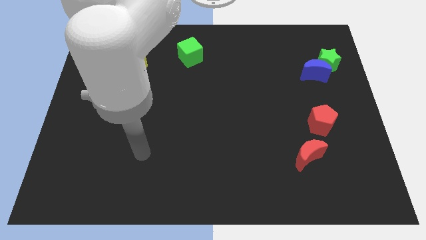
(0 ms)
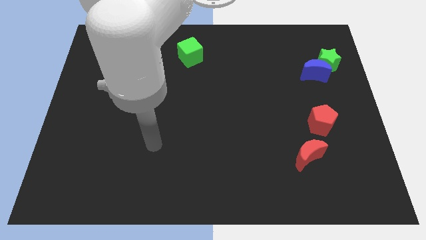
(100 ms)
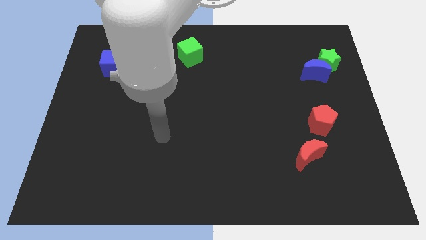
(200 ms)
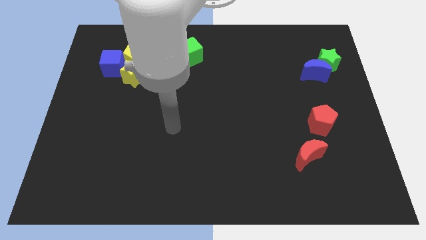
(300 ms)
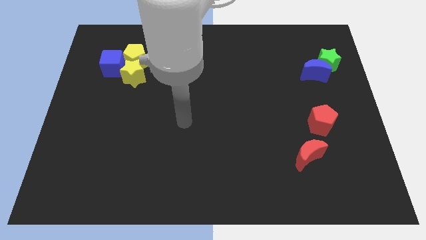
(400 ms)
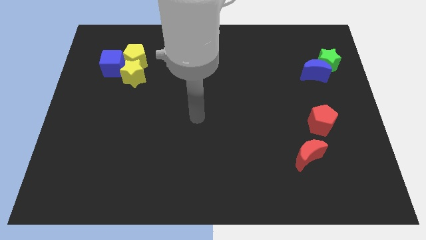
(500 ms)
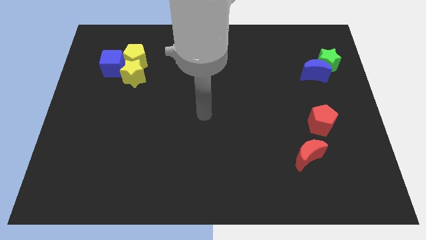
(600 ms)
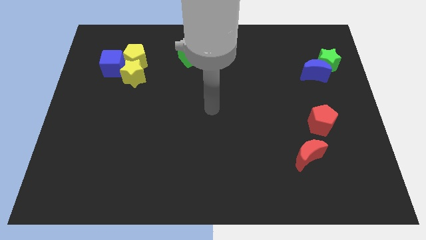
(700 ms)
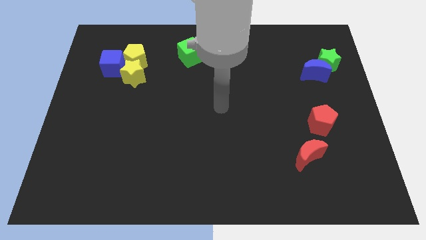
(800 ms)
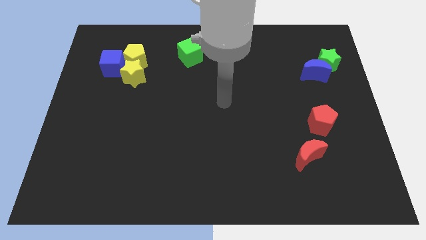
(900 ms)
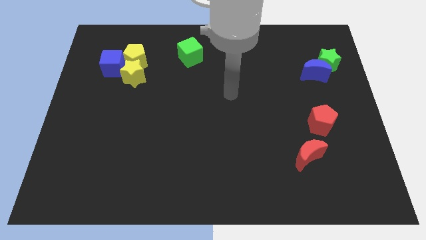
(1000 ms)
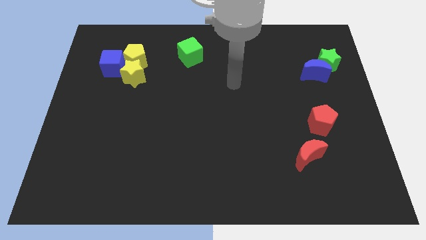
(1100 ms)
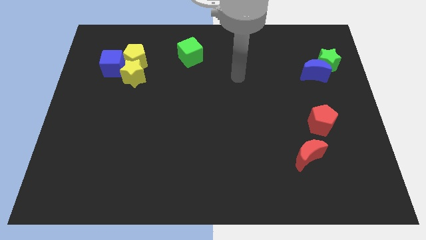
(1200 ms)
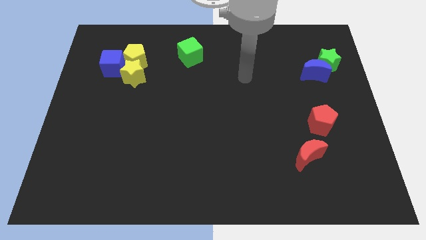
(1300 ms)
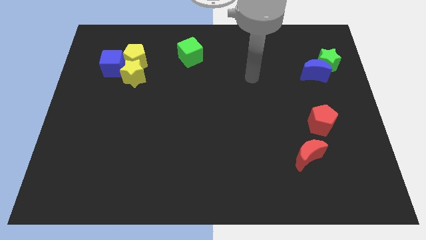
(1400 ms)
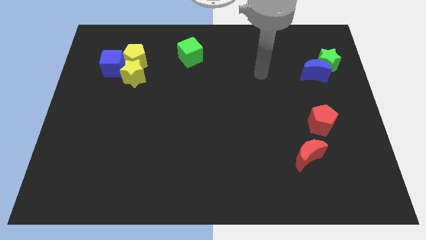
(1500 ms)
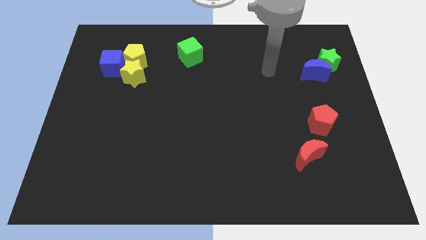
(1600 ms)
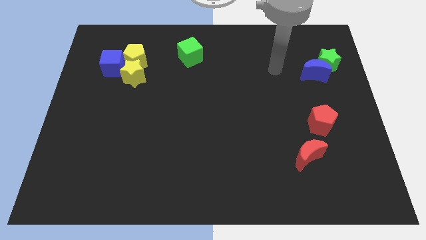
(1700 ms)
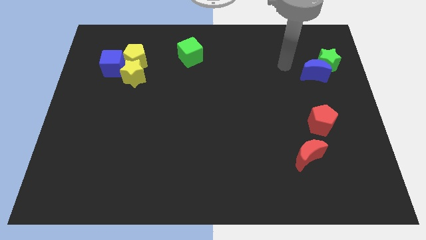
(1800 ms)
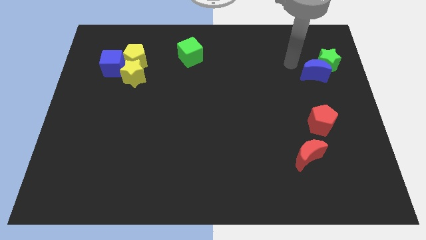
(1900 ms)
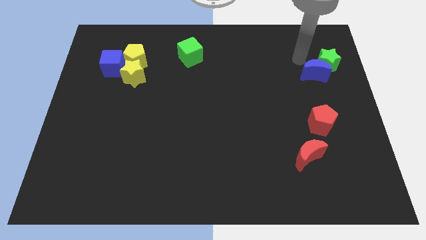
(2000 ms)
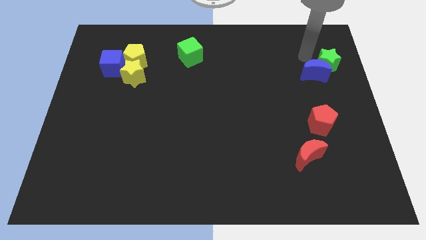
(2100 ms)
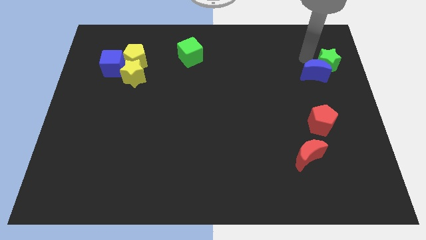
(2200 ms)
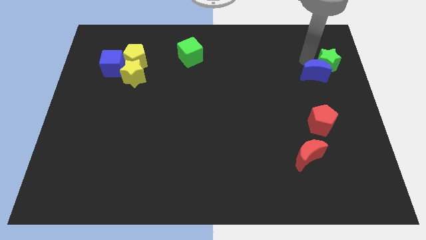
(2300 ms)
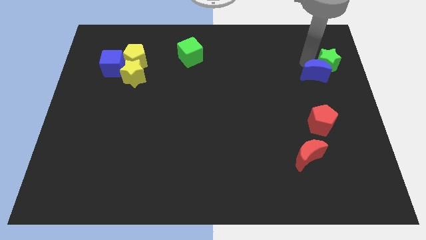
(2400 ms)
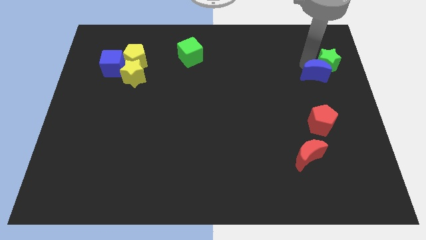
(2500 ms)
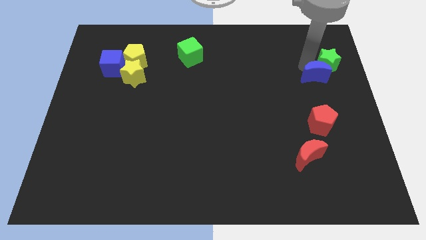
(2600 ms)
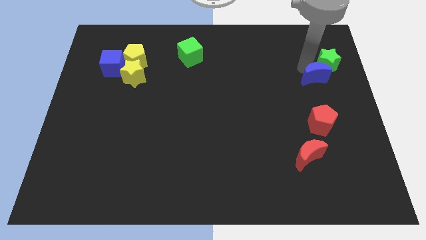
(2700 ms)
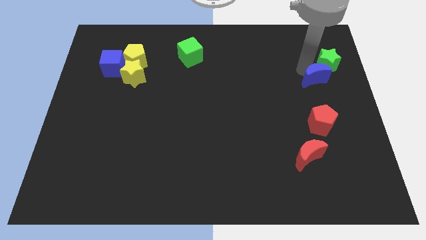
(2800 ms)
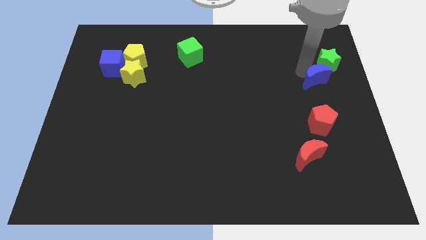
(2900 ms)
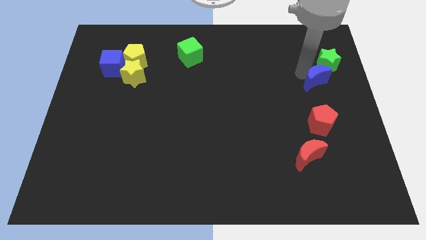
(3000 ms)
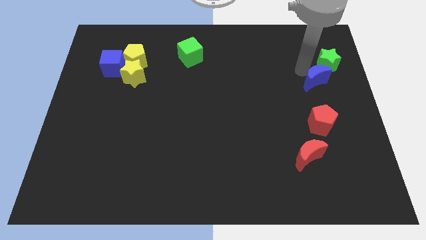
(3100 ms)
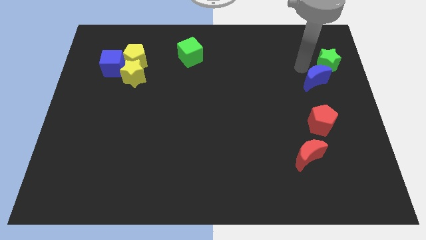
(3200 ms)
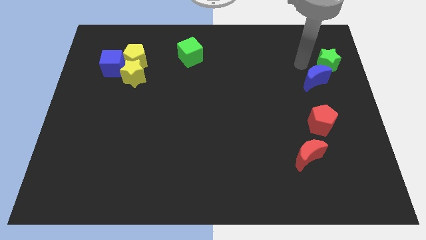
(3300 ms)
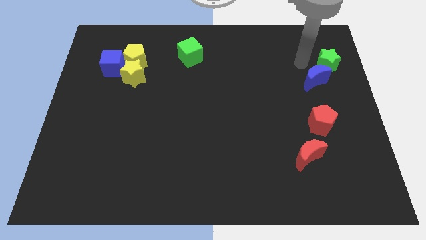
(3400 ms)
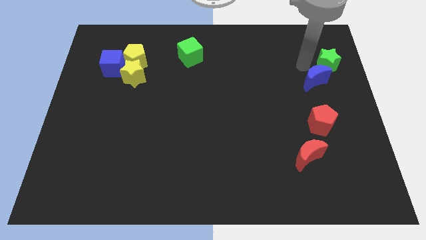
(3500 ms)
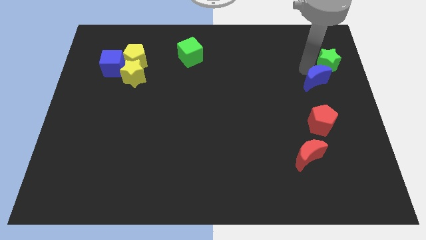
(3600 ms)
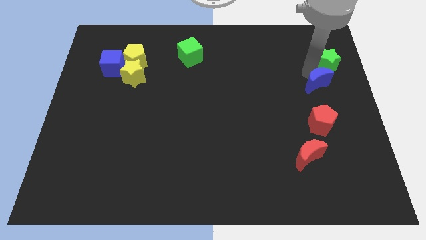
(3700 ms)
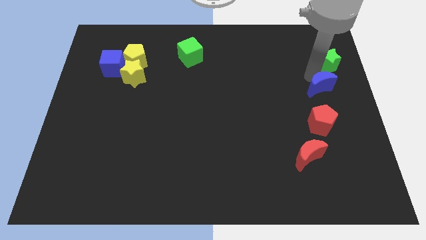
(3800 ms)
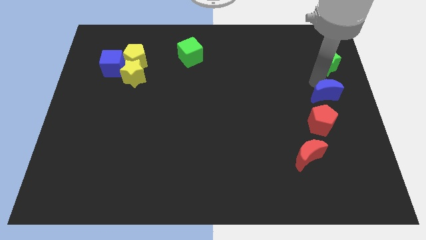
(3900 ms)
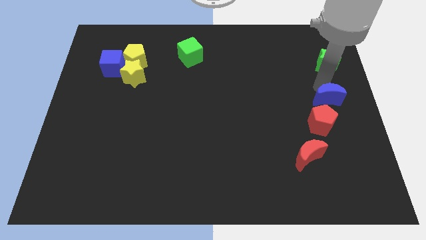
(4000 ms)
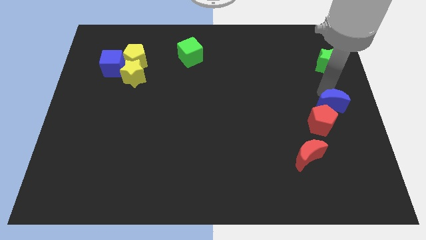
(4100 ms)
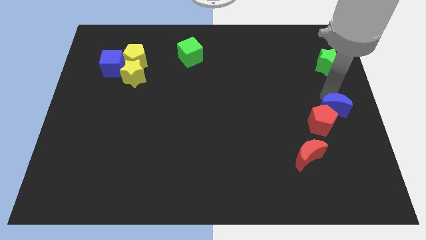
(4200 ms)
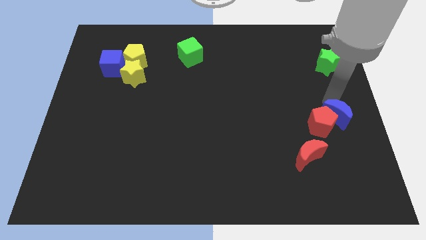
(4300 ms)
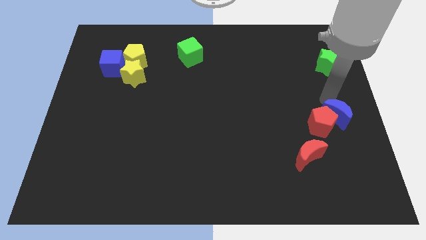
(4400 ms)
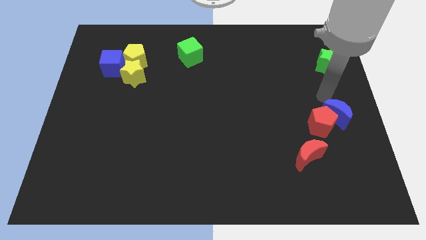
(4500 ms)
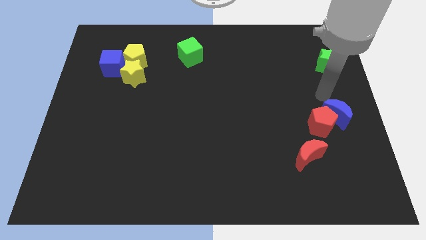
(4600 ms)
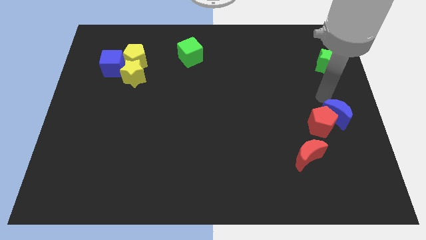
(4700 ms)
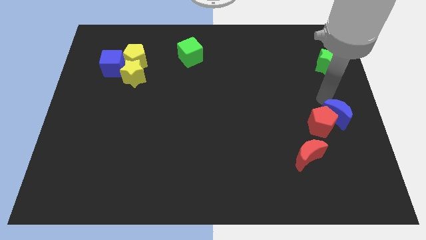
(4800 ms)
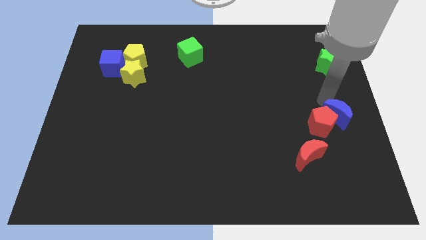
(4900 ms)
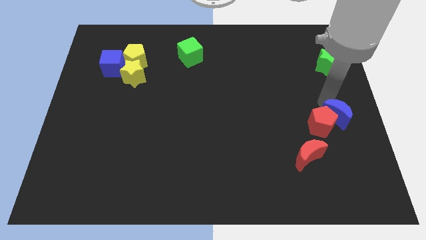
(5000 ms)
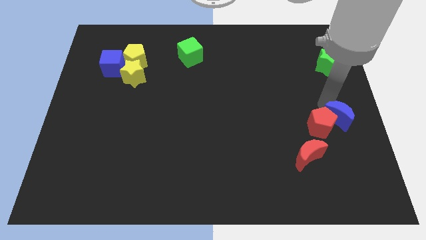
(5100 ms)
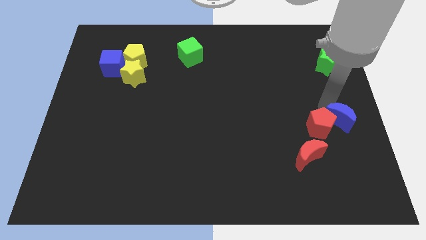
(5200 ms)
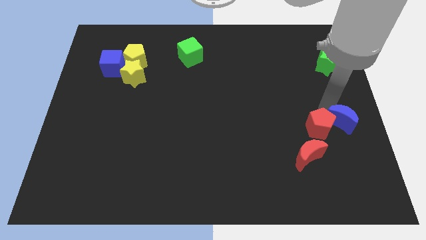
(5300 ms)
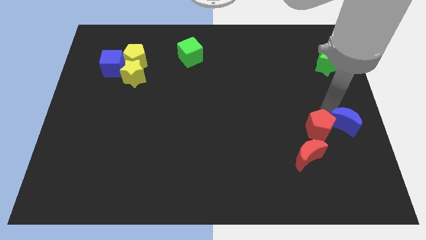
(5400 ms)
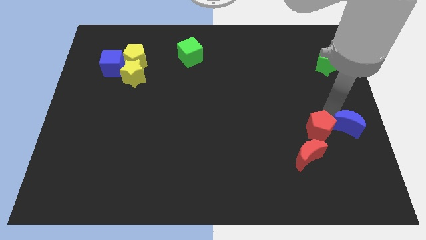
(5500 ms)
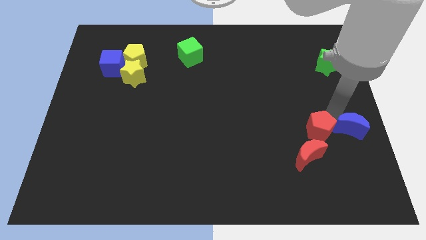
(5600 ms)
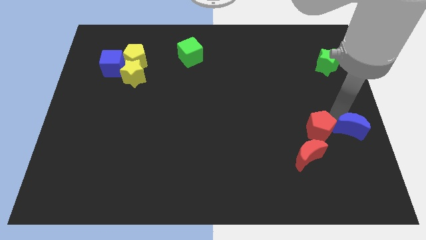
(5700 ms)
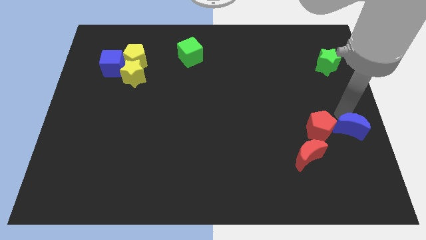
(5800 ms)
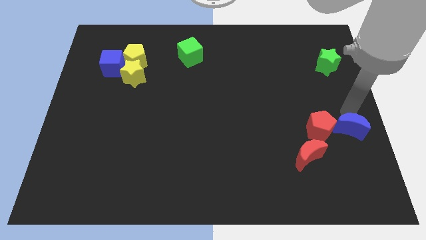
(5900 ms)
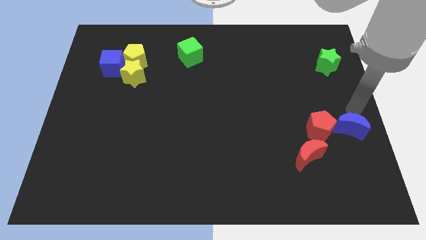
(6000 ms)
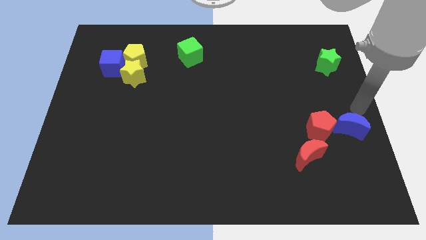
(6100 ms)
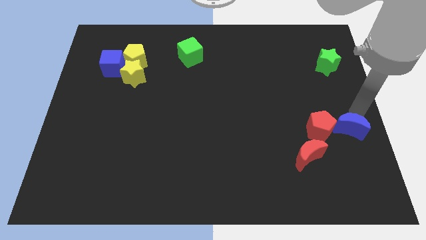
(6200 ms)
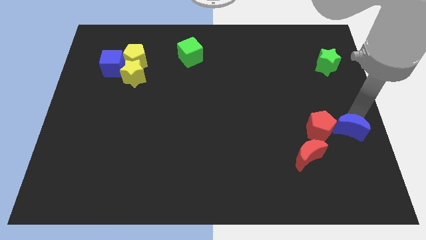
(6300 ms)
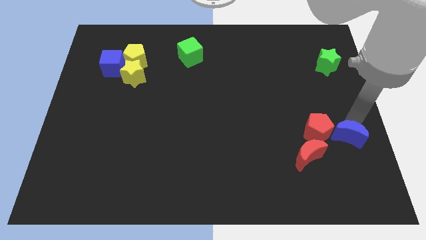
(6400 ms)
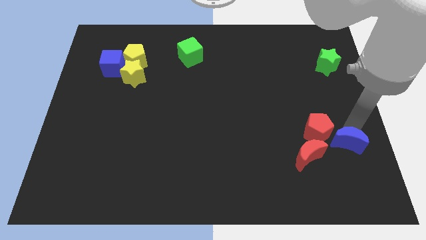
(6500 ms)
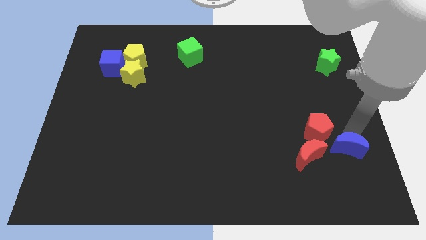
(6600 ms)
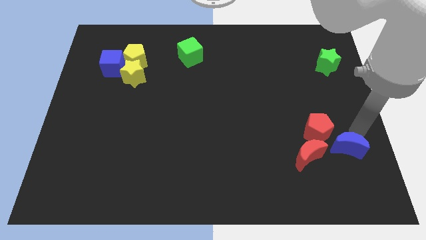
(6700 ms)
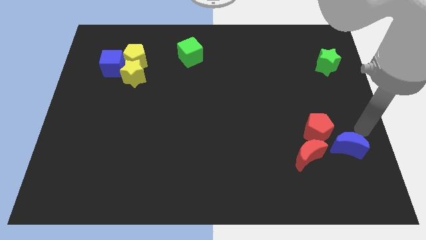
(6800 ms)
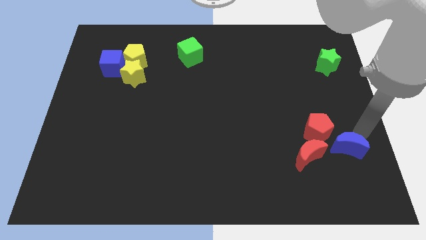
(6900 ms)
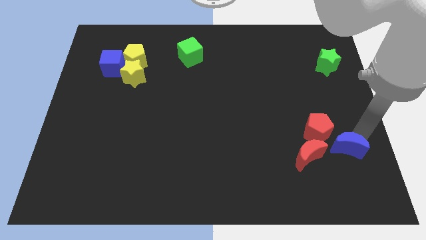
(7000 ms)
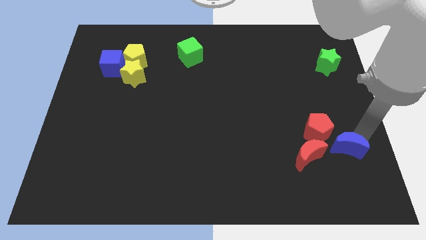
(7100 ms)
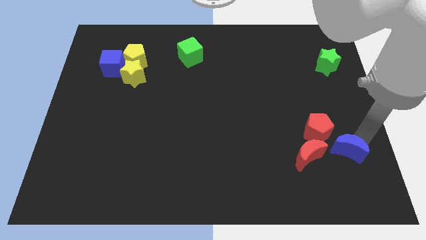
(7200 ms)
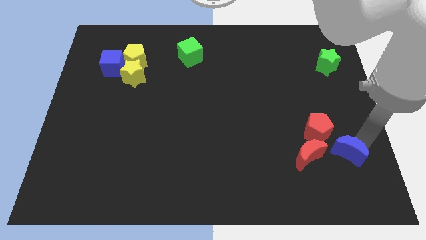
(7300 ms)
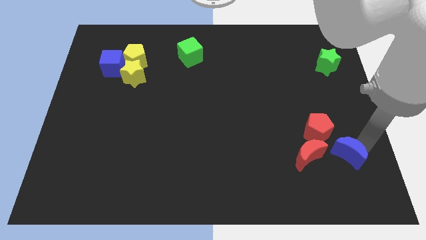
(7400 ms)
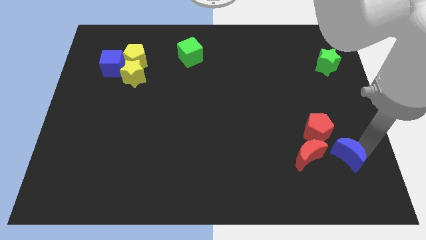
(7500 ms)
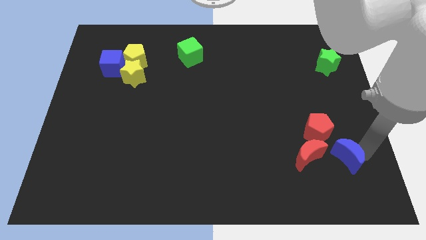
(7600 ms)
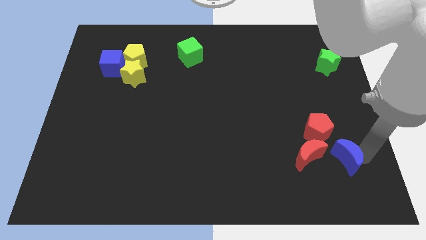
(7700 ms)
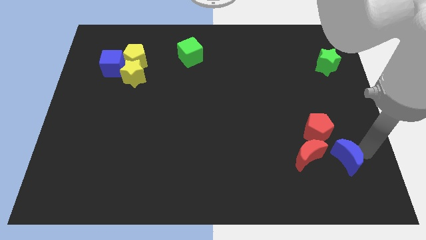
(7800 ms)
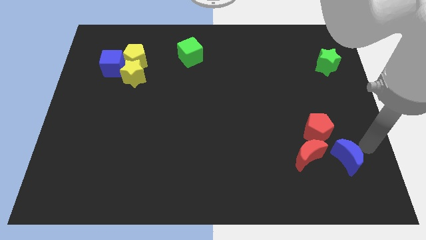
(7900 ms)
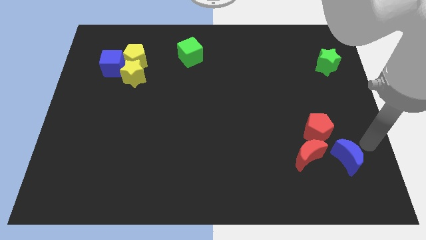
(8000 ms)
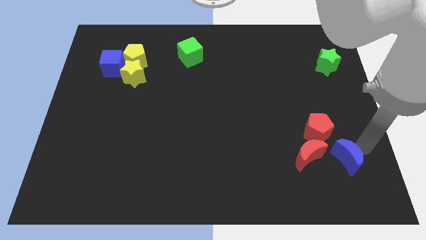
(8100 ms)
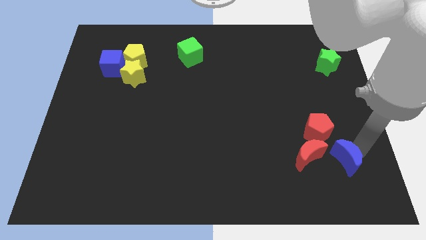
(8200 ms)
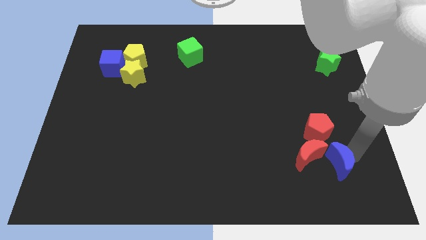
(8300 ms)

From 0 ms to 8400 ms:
push the blue moon to the bottom of the red pentagon
